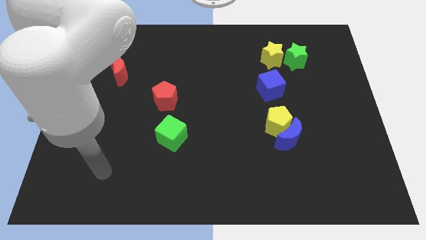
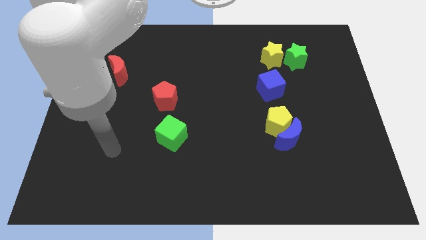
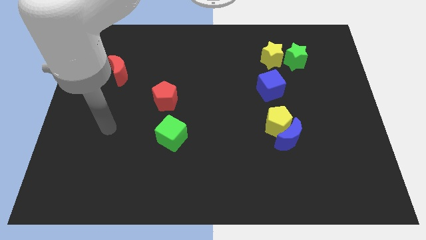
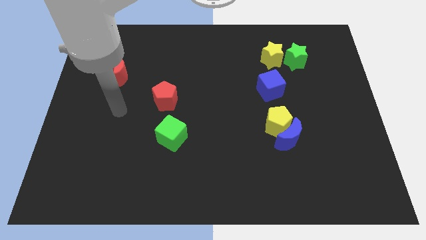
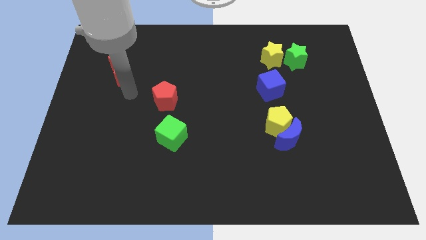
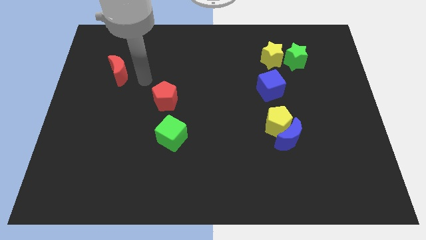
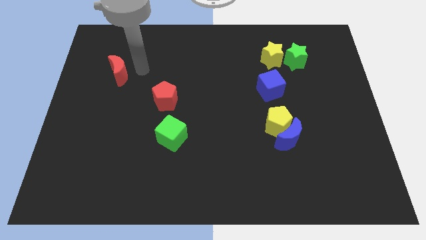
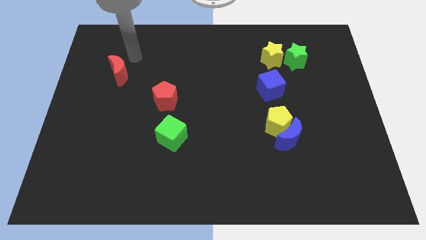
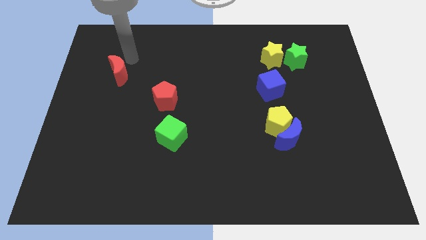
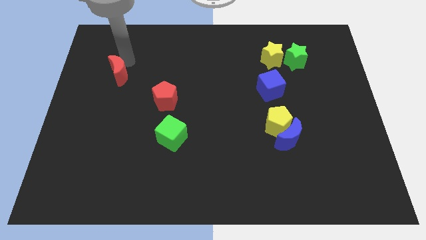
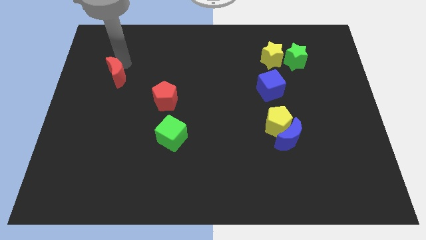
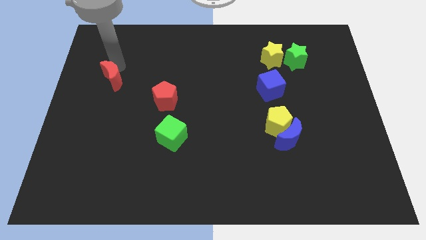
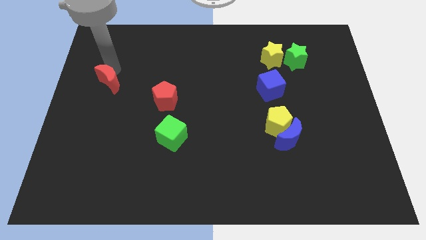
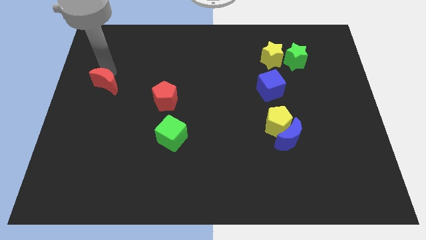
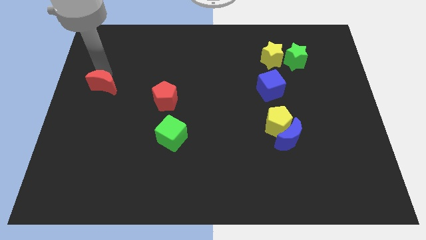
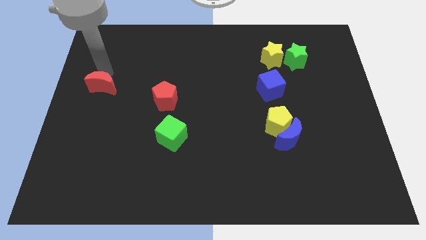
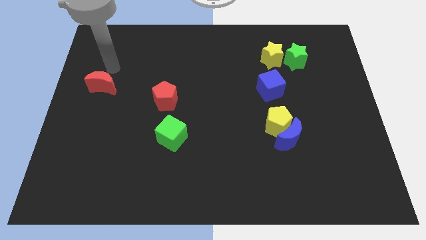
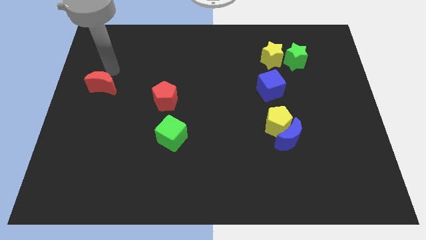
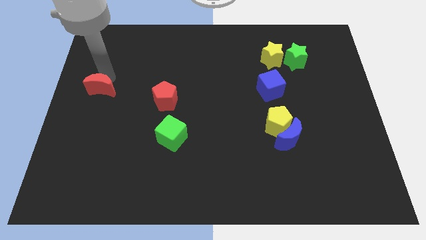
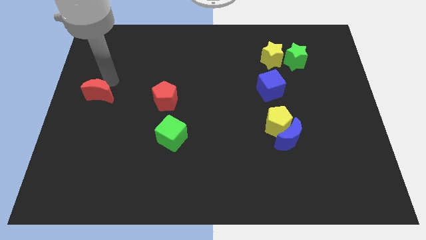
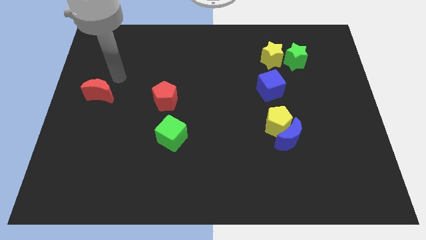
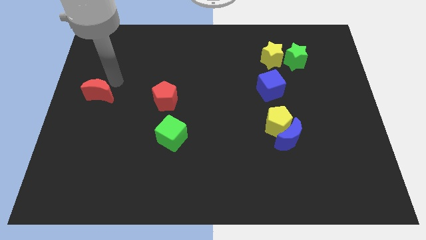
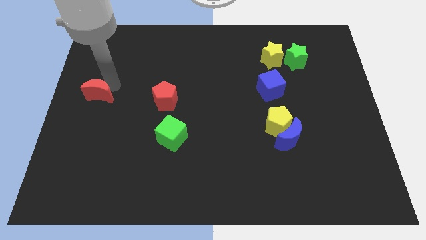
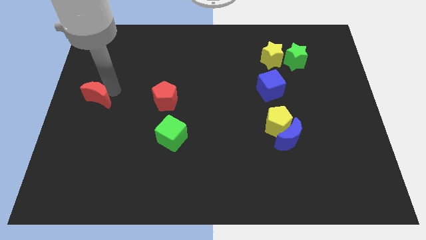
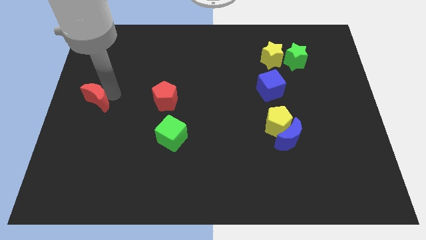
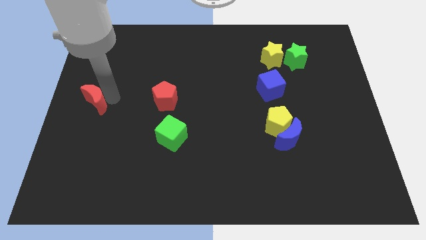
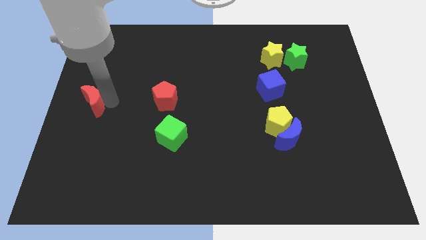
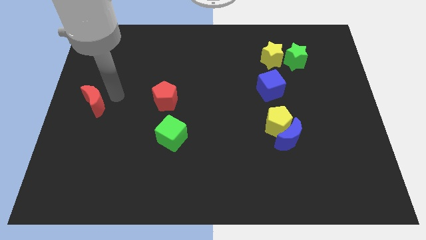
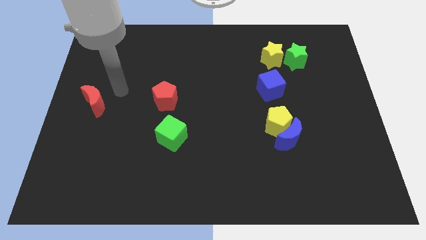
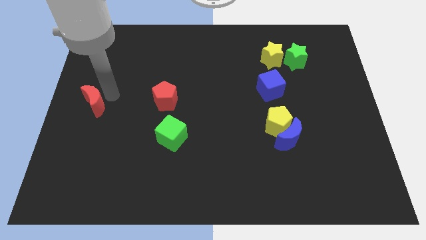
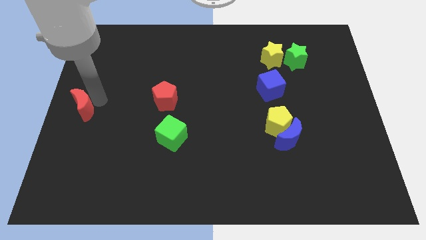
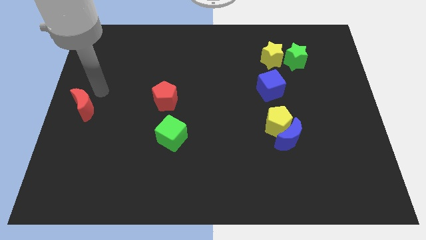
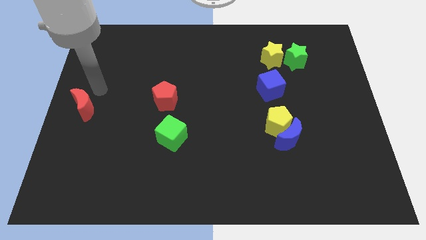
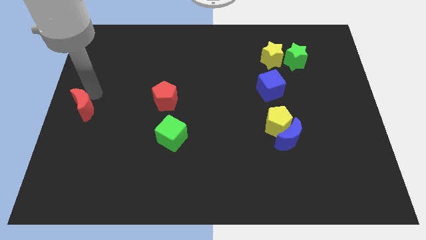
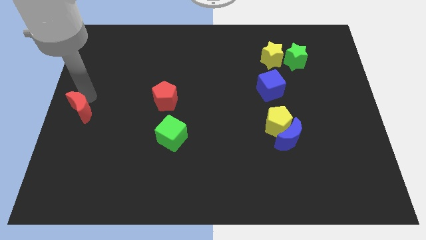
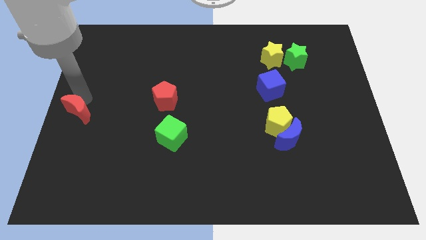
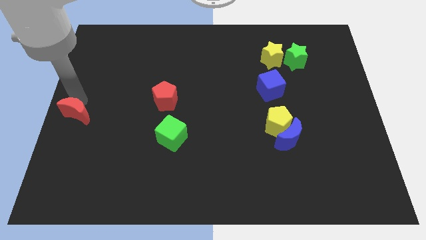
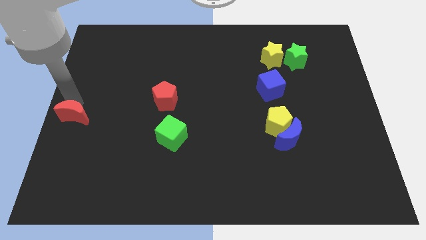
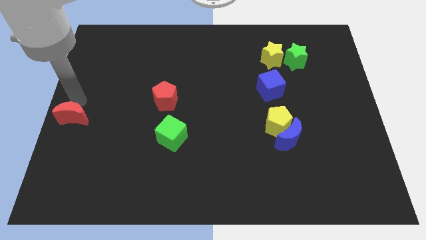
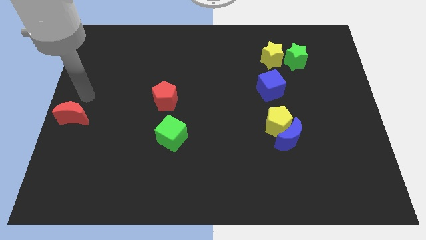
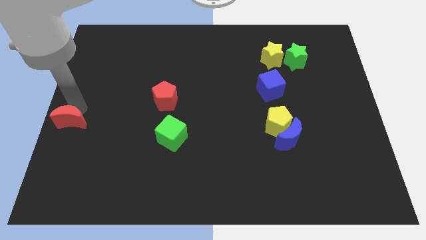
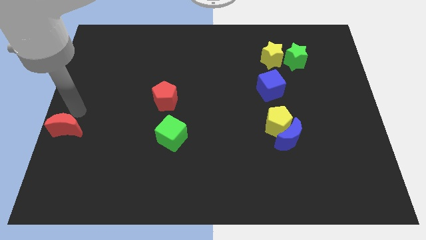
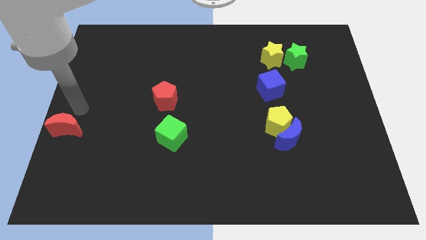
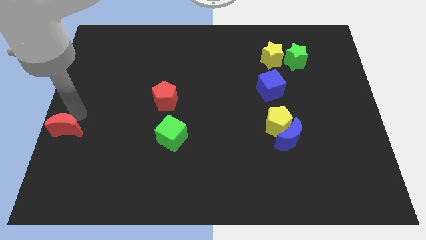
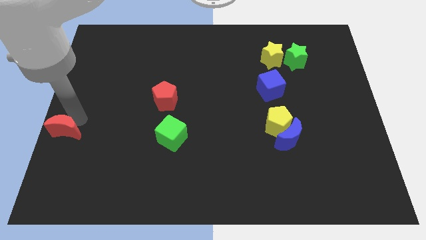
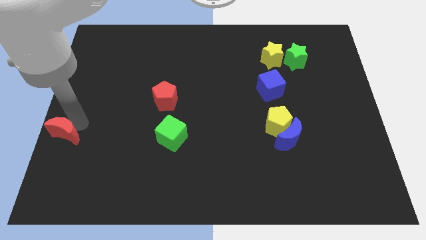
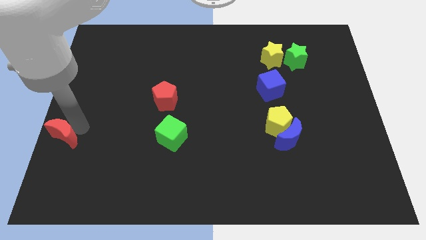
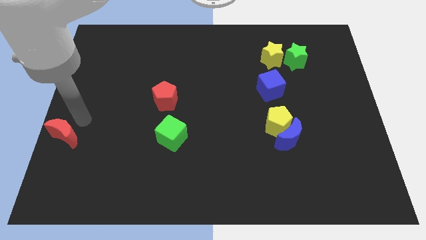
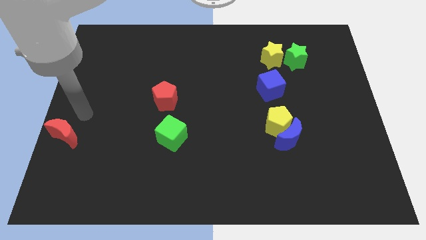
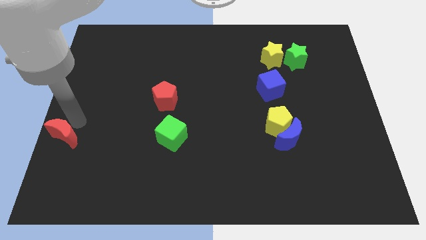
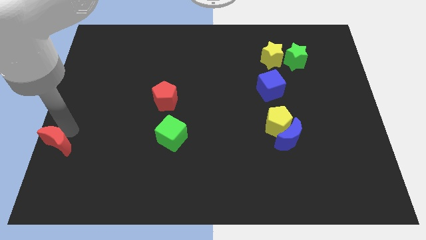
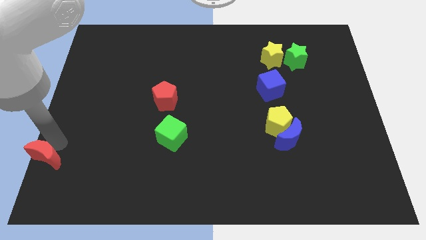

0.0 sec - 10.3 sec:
push the red moon to the bottom left

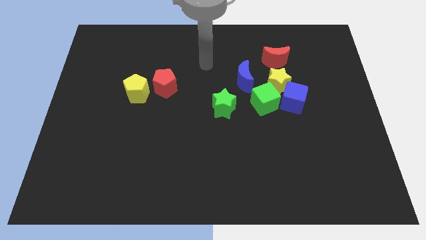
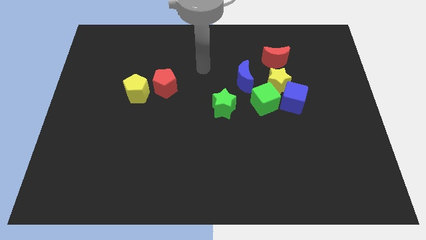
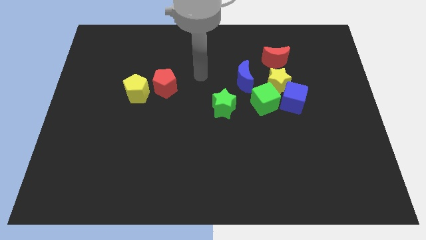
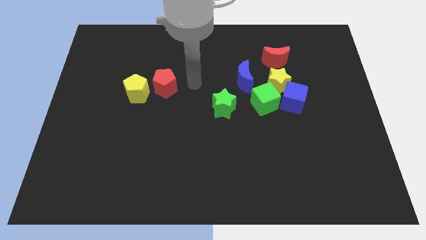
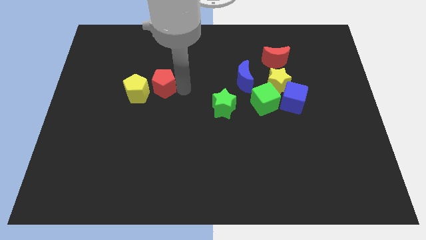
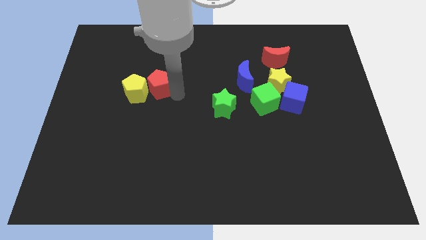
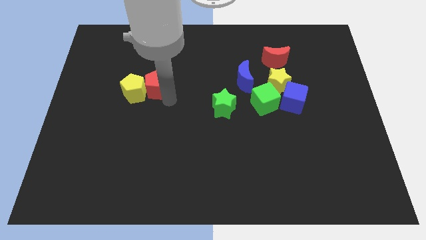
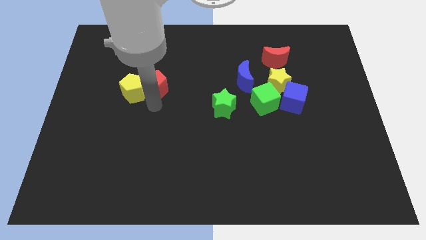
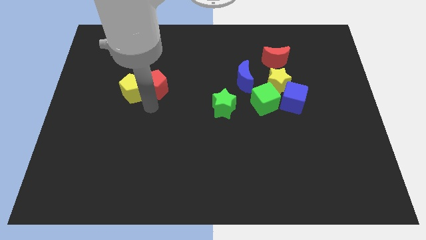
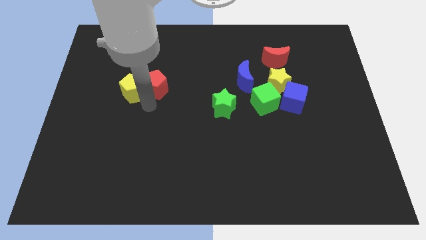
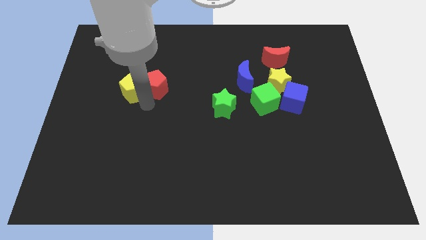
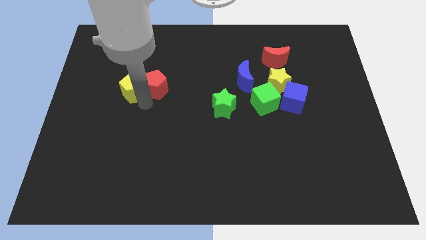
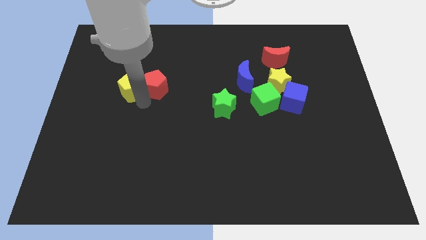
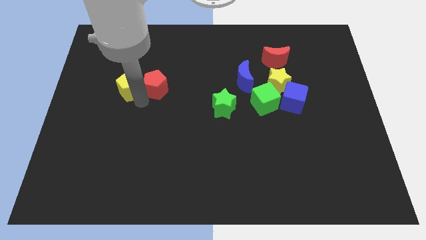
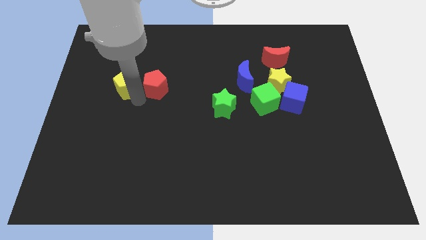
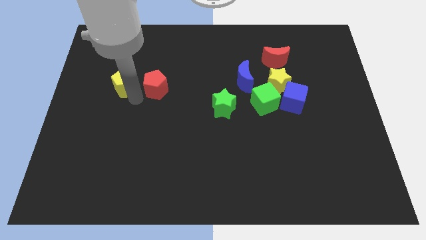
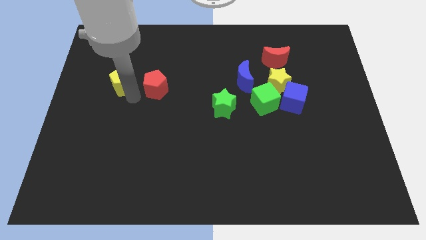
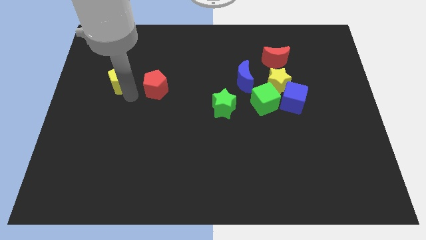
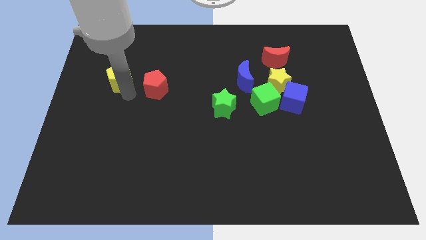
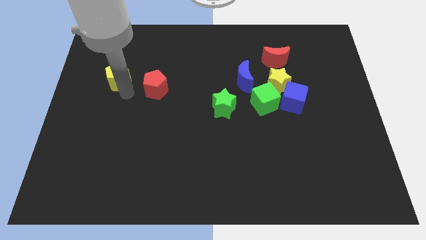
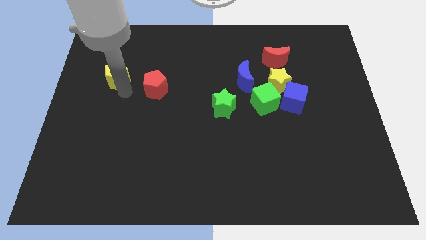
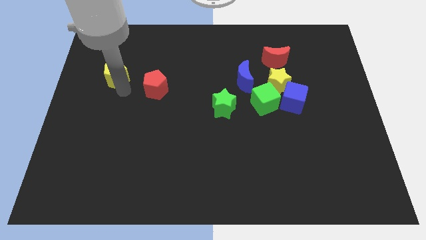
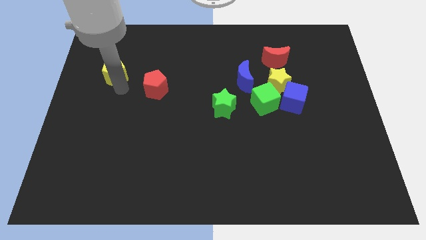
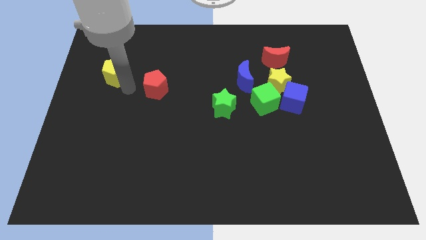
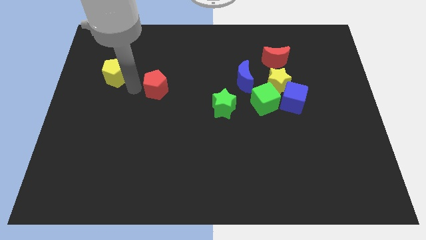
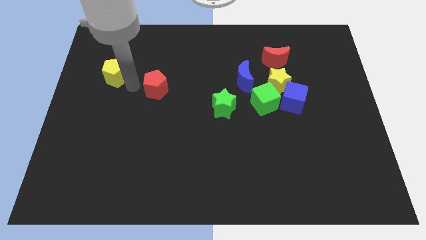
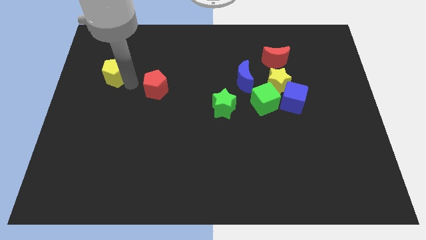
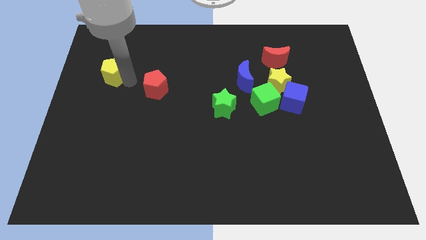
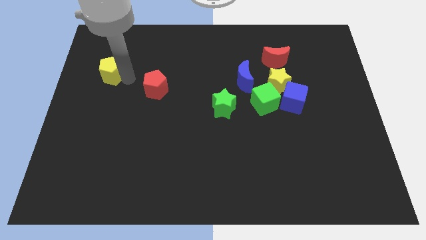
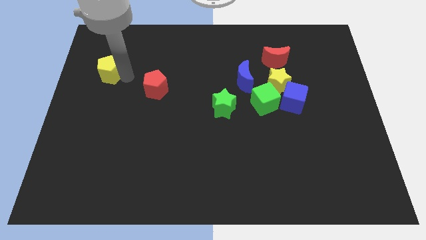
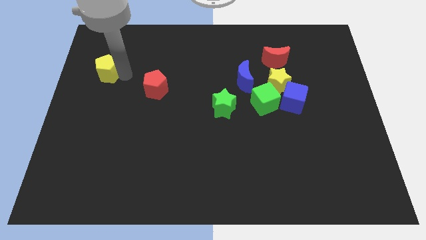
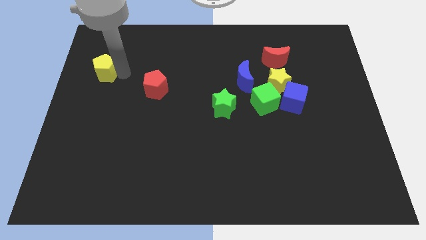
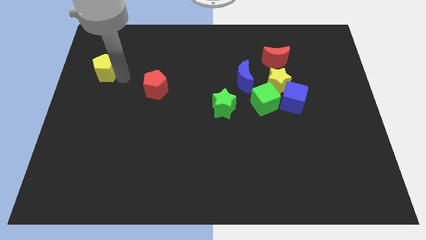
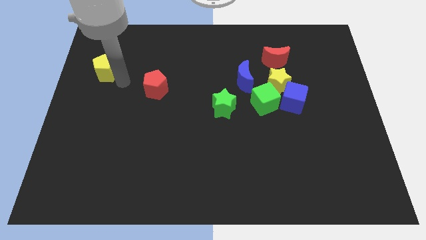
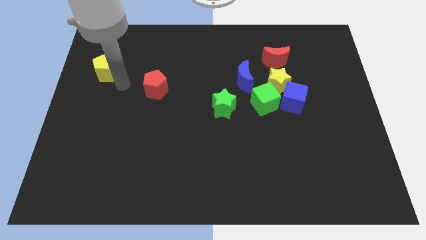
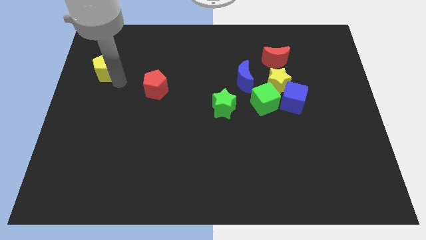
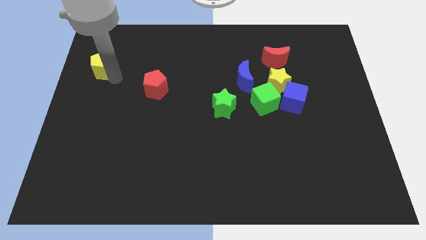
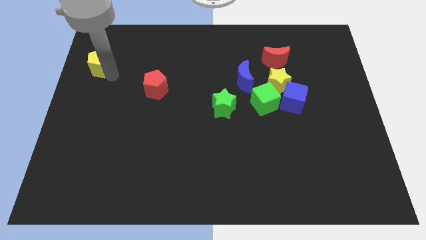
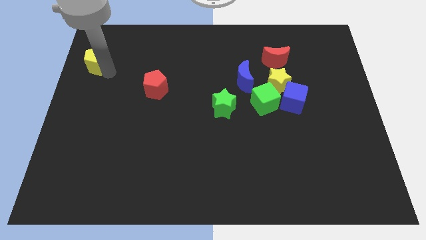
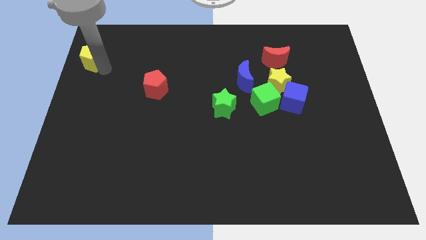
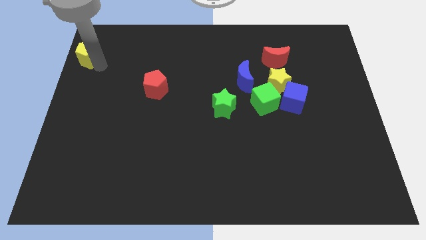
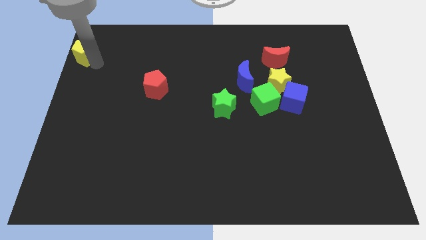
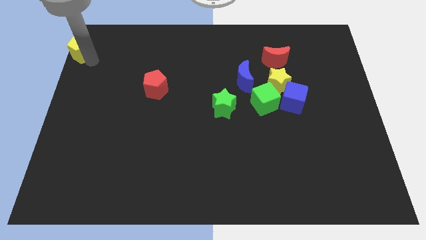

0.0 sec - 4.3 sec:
put the yellow pentagon to the top left corner
